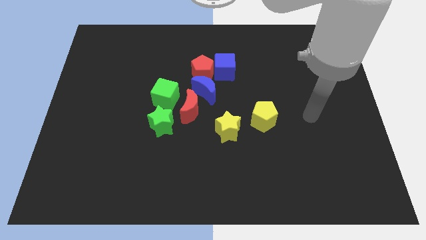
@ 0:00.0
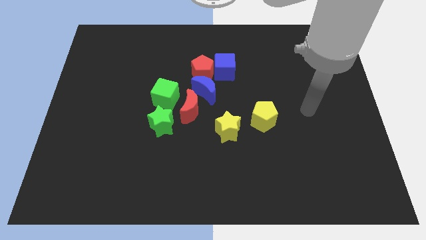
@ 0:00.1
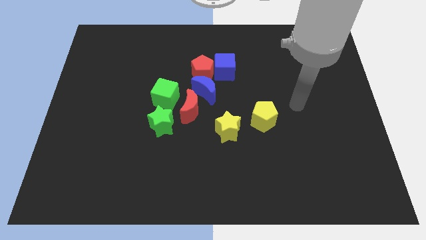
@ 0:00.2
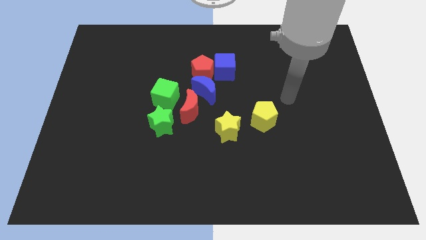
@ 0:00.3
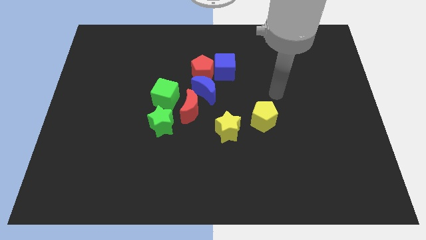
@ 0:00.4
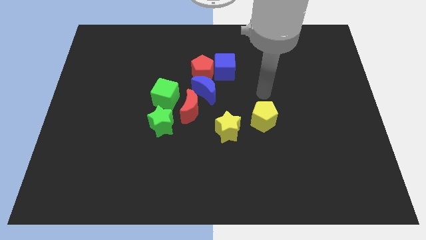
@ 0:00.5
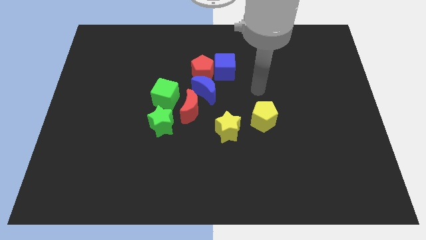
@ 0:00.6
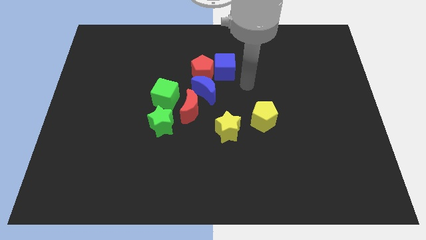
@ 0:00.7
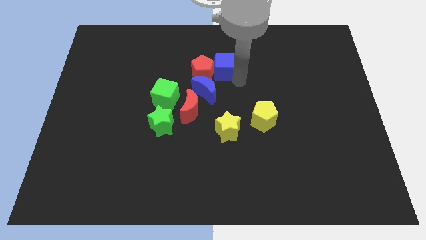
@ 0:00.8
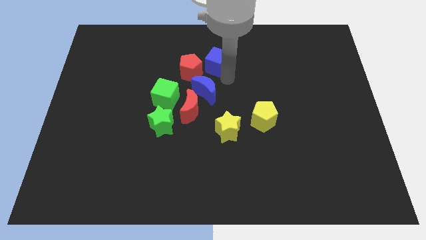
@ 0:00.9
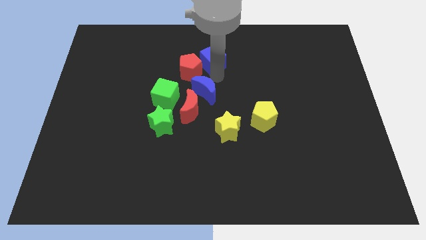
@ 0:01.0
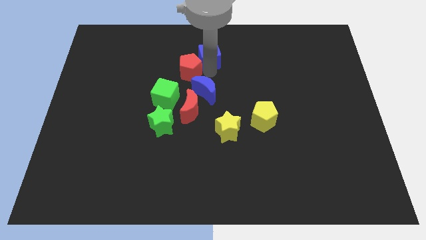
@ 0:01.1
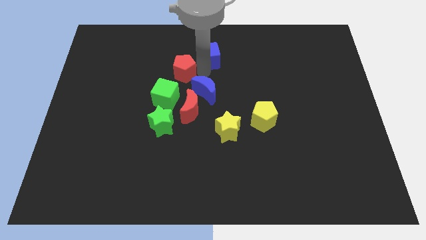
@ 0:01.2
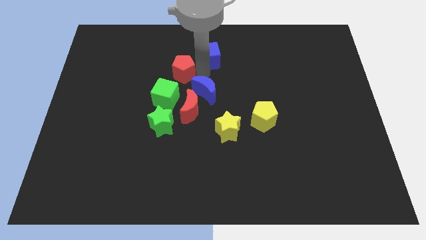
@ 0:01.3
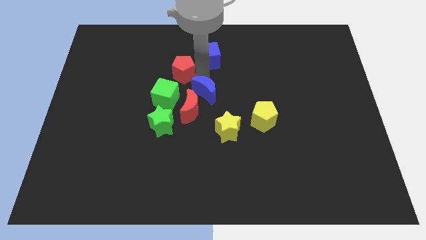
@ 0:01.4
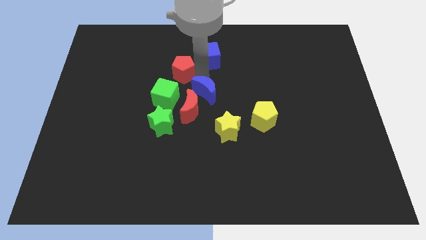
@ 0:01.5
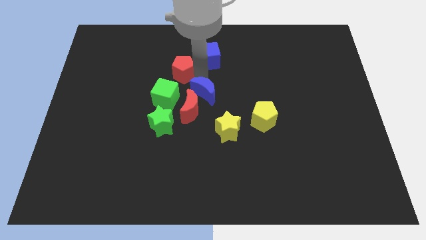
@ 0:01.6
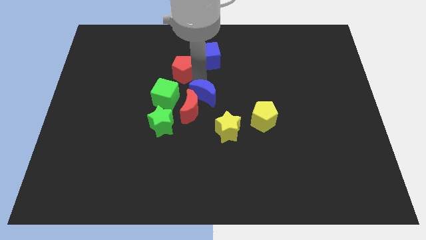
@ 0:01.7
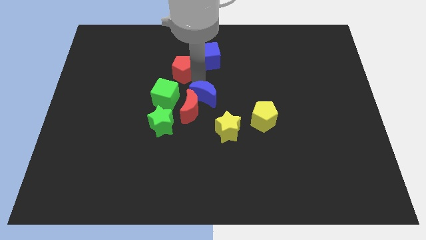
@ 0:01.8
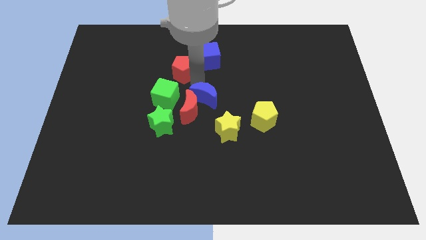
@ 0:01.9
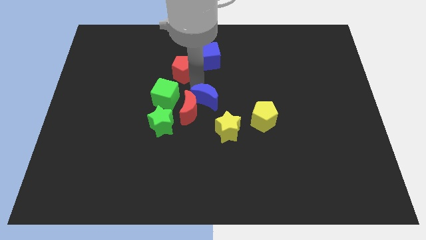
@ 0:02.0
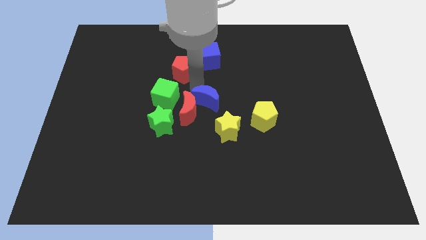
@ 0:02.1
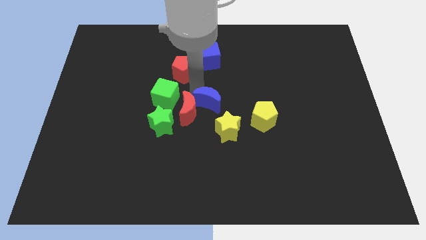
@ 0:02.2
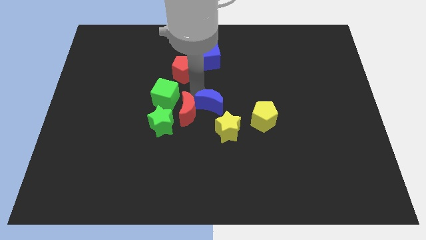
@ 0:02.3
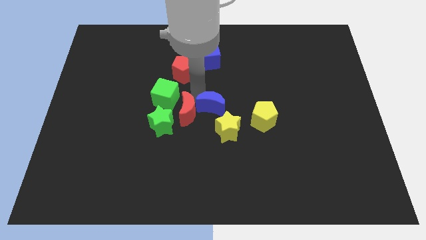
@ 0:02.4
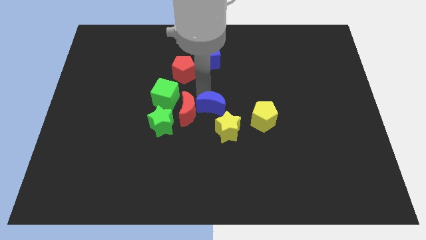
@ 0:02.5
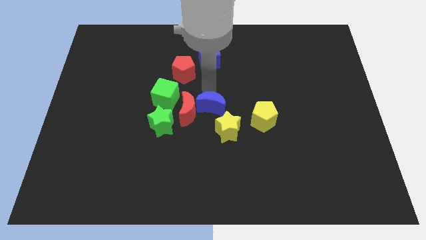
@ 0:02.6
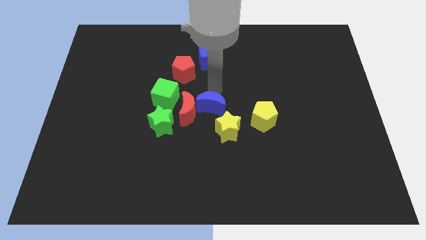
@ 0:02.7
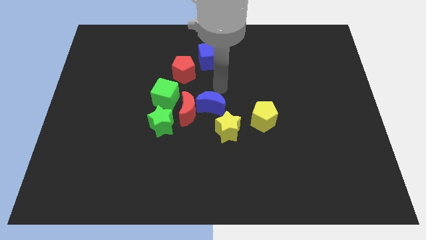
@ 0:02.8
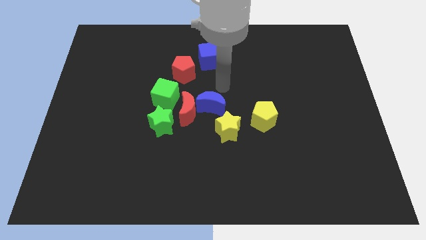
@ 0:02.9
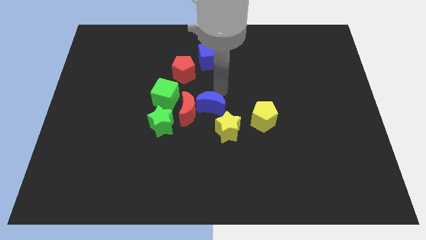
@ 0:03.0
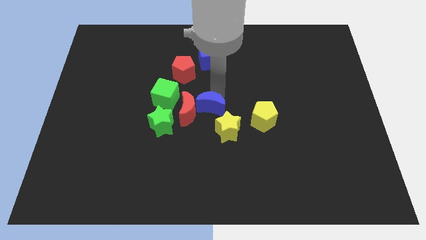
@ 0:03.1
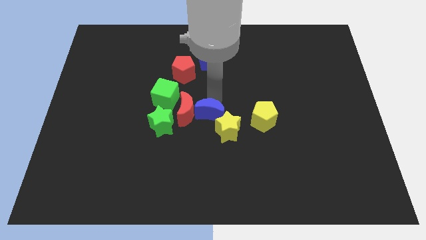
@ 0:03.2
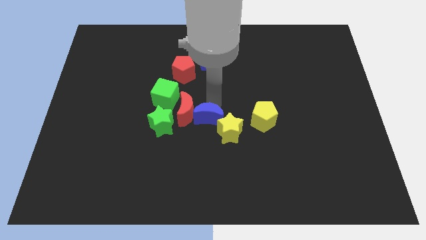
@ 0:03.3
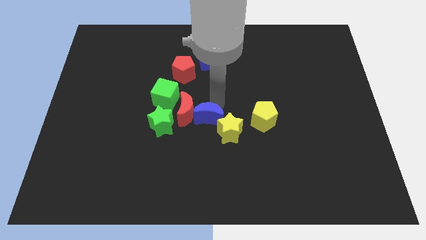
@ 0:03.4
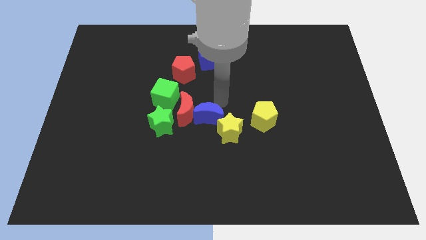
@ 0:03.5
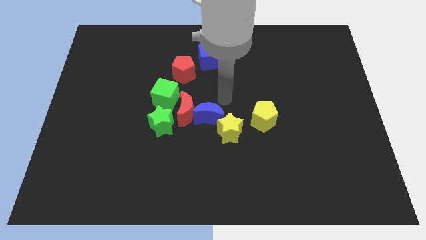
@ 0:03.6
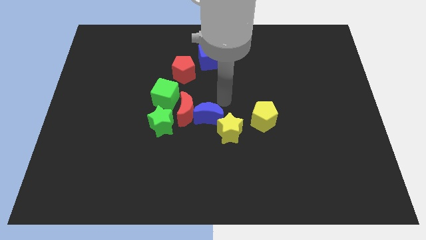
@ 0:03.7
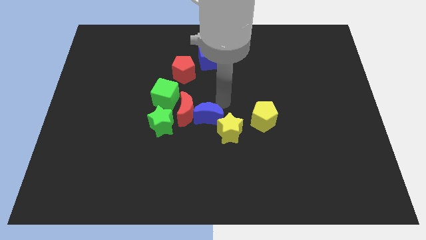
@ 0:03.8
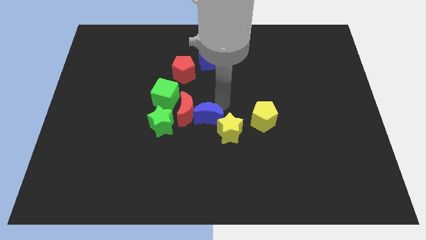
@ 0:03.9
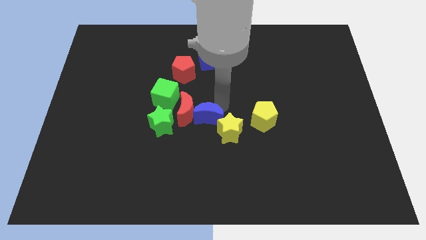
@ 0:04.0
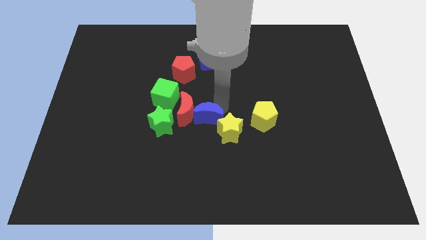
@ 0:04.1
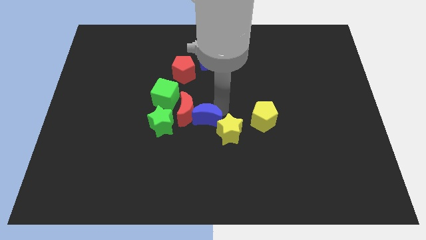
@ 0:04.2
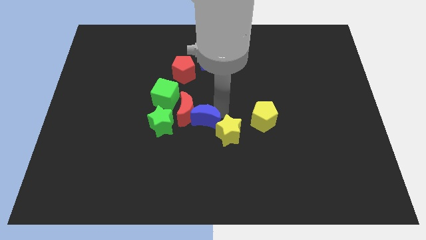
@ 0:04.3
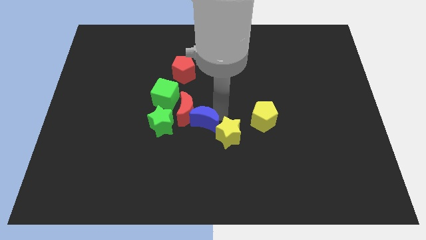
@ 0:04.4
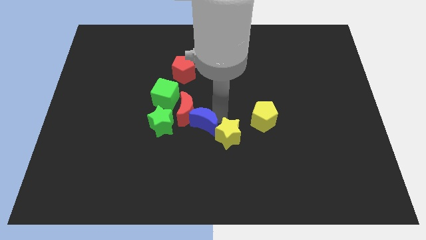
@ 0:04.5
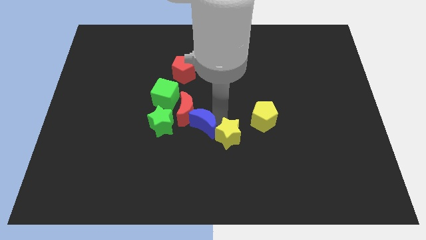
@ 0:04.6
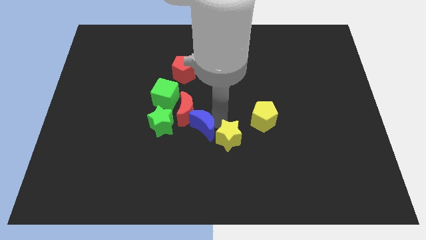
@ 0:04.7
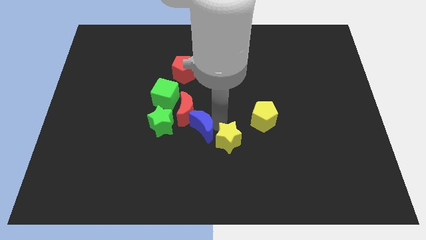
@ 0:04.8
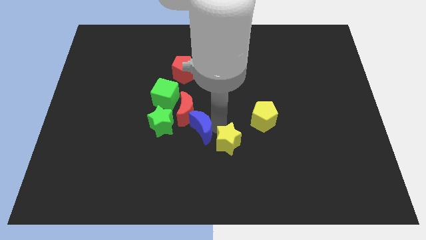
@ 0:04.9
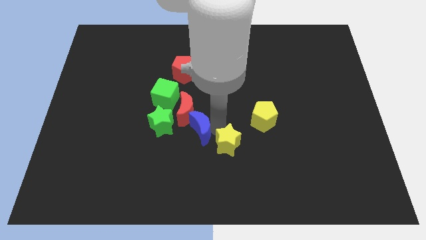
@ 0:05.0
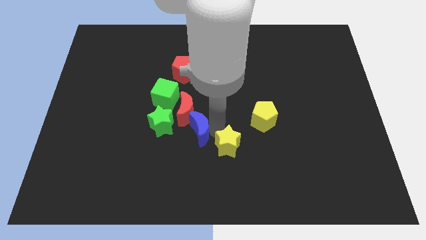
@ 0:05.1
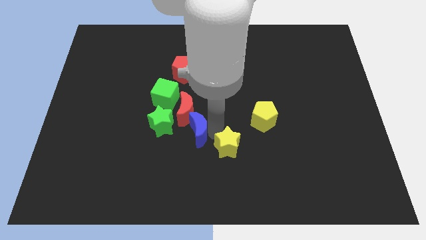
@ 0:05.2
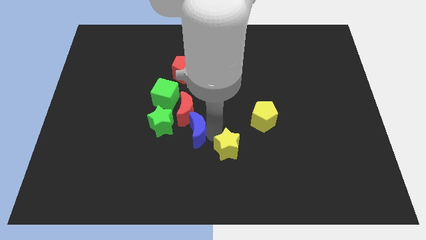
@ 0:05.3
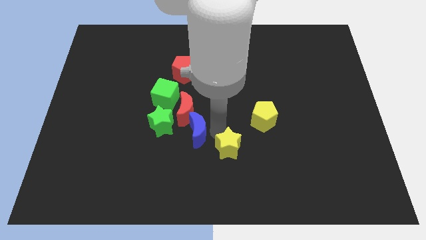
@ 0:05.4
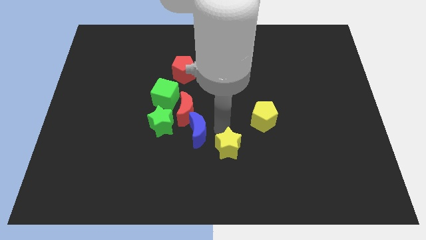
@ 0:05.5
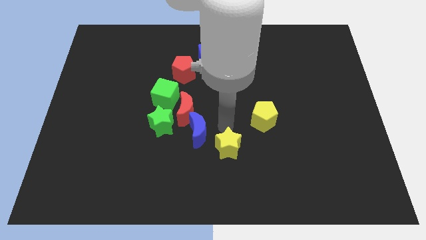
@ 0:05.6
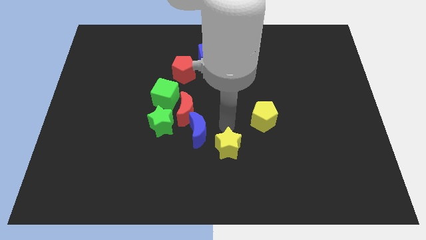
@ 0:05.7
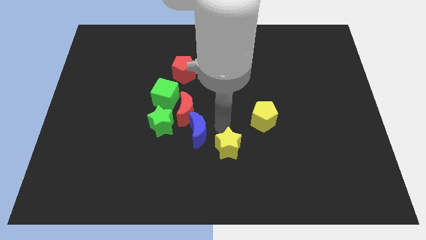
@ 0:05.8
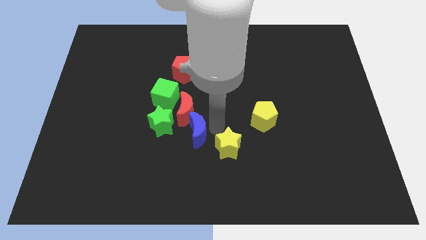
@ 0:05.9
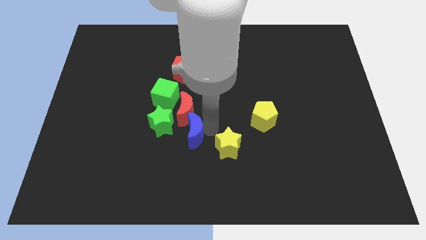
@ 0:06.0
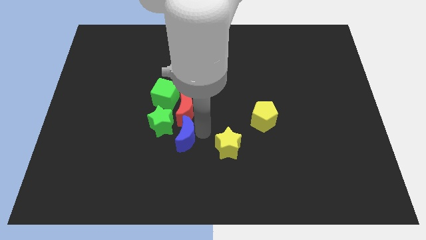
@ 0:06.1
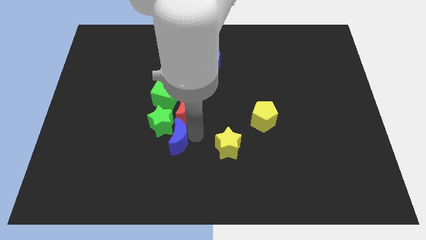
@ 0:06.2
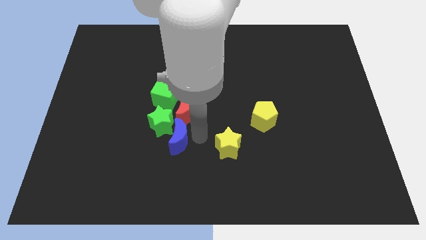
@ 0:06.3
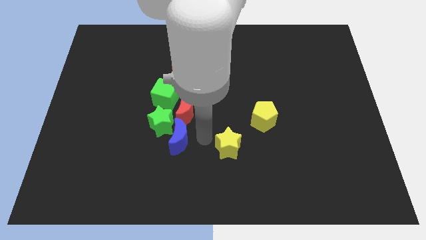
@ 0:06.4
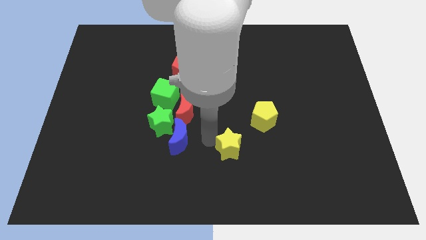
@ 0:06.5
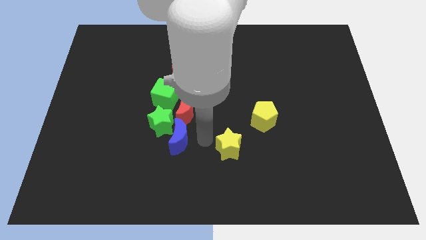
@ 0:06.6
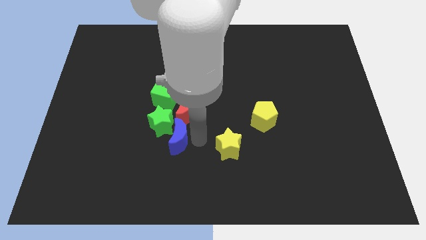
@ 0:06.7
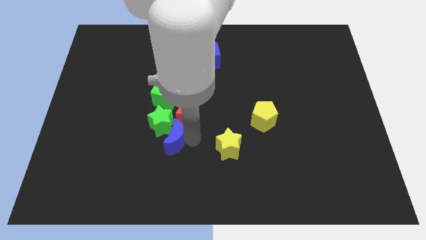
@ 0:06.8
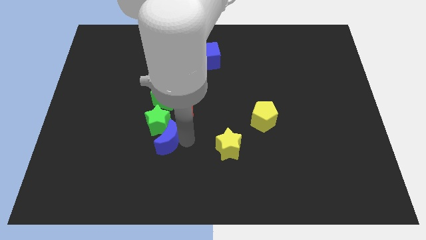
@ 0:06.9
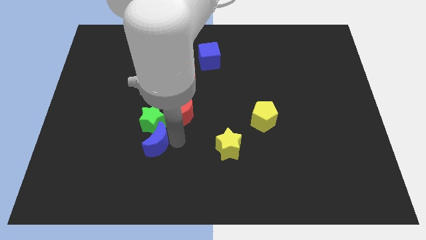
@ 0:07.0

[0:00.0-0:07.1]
push the blue moon diagonally down and to the left of the green star
